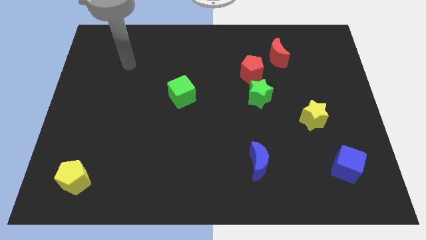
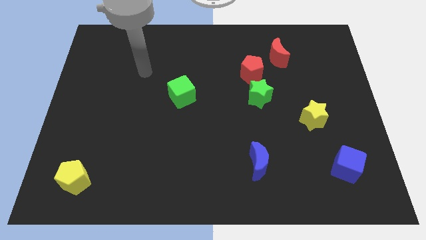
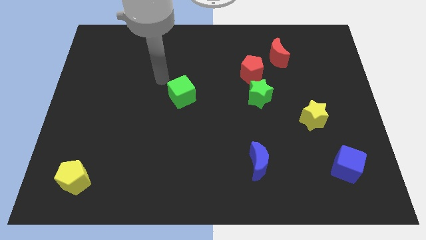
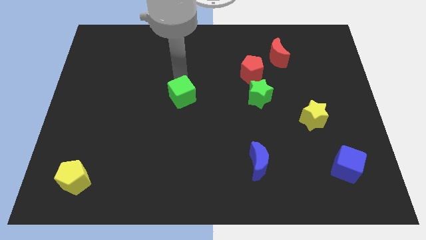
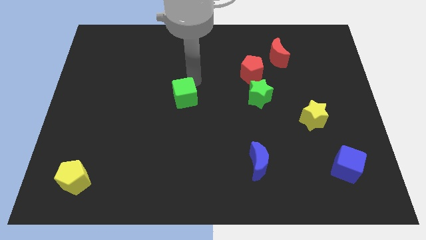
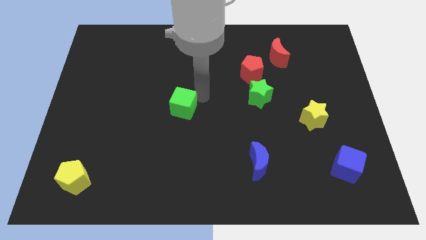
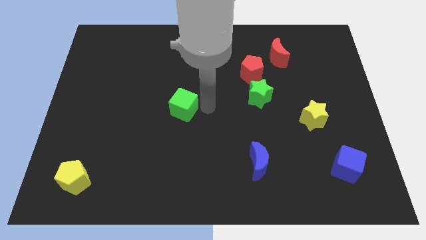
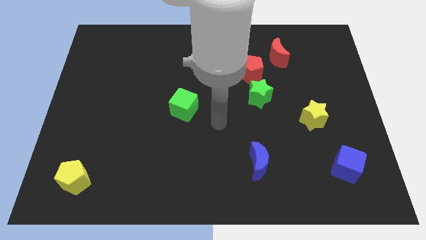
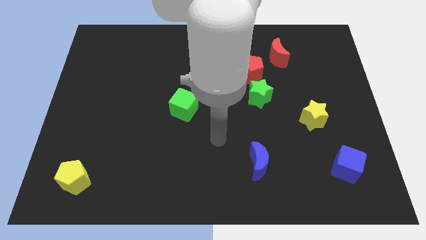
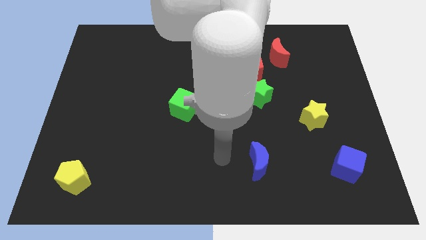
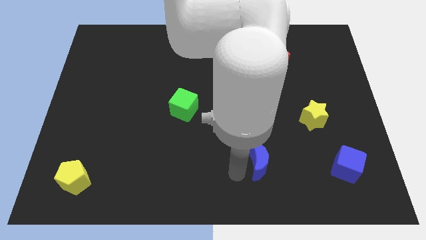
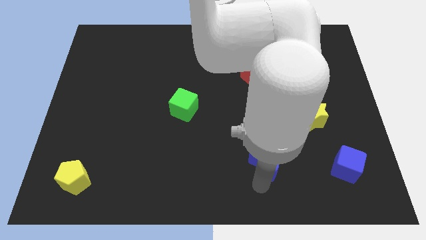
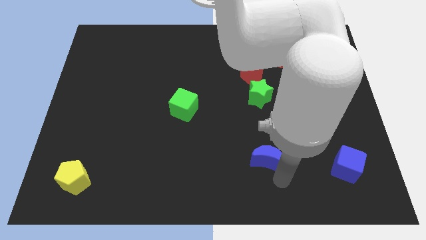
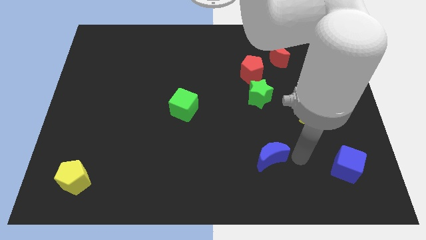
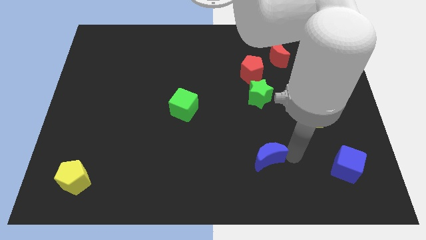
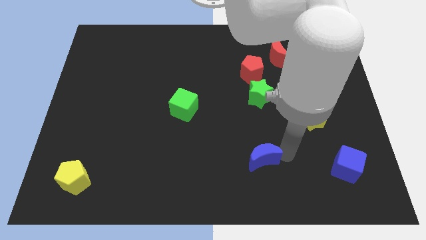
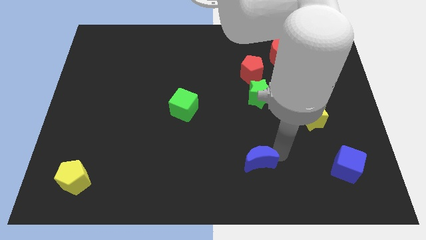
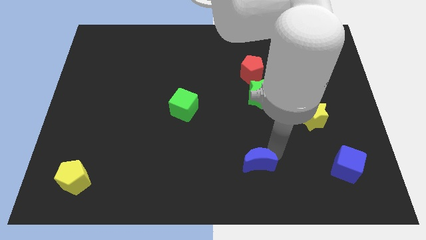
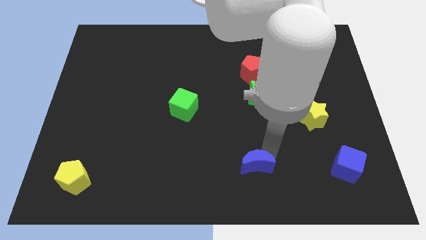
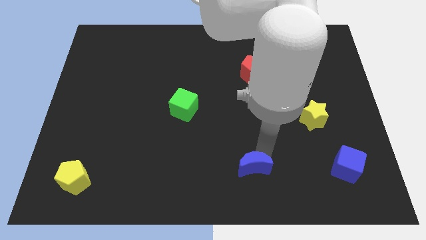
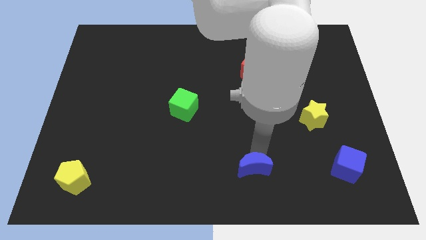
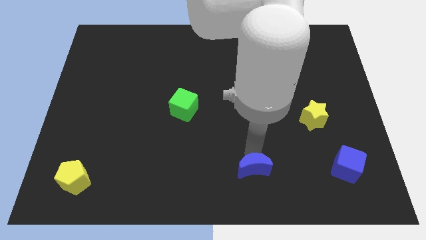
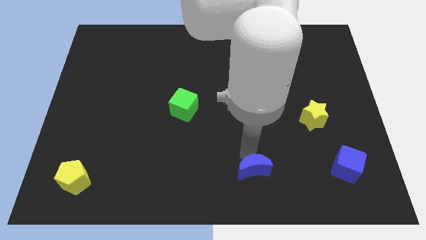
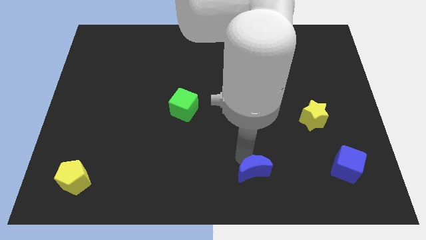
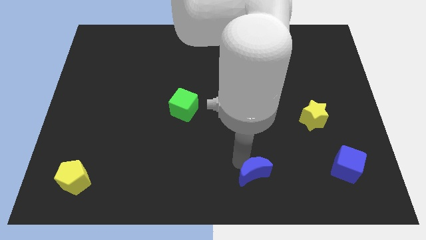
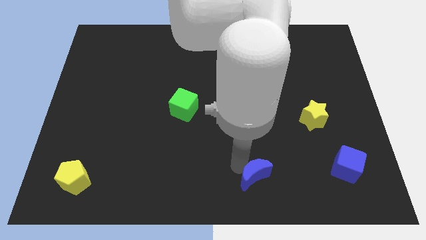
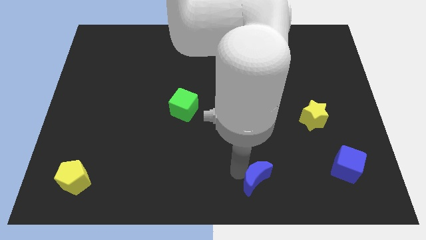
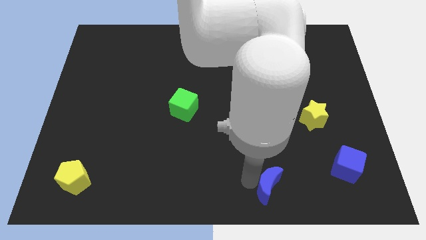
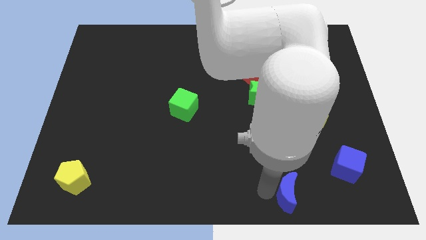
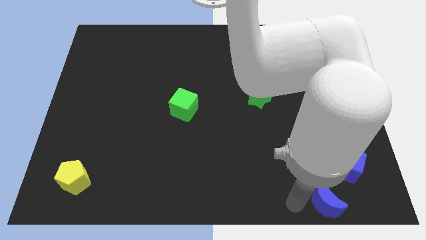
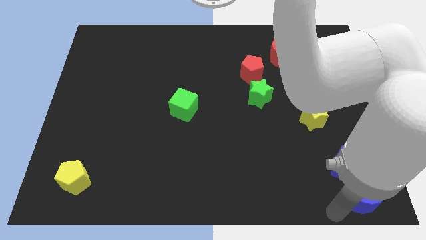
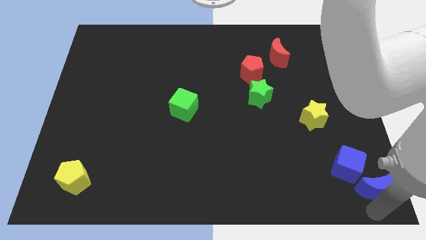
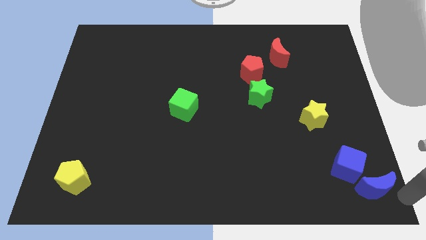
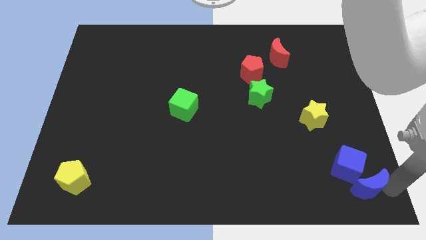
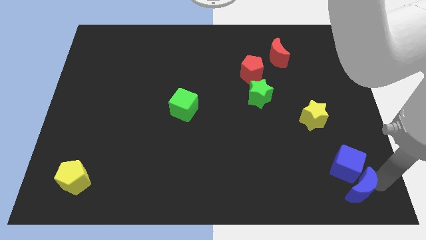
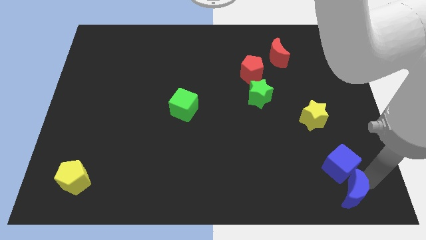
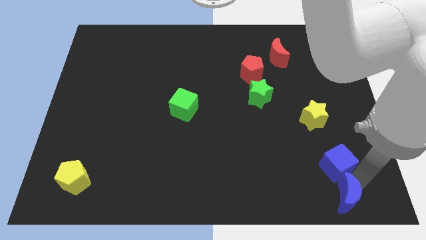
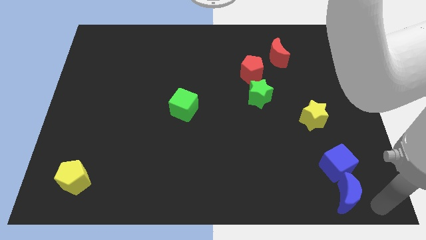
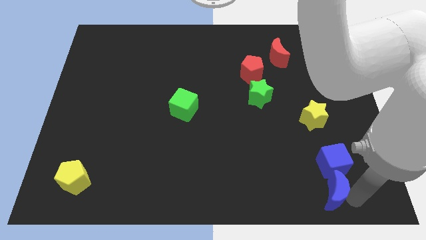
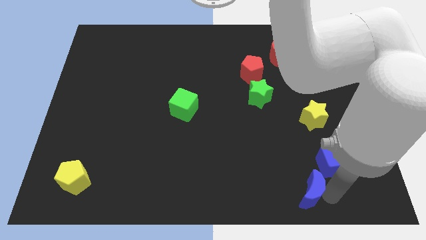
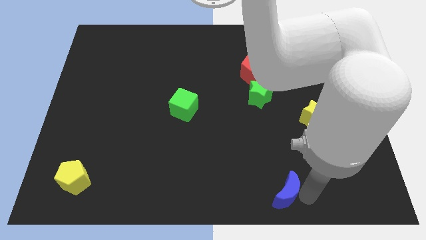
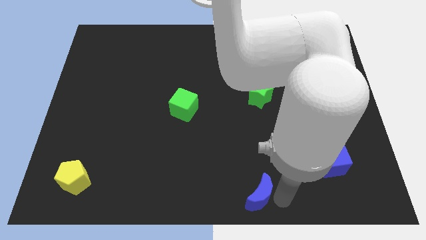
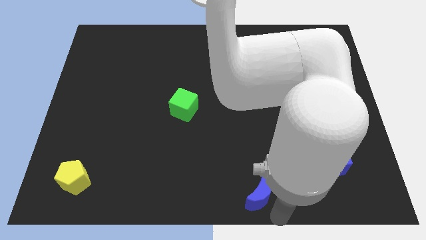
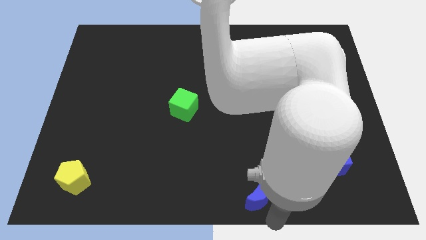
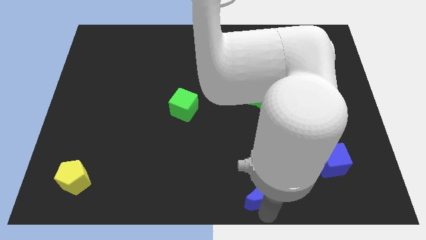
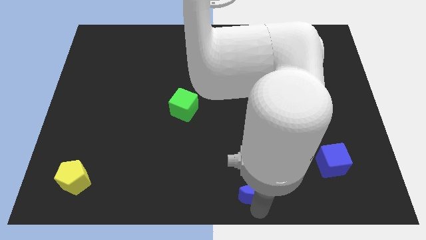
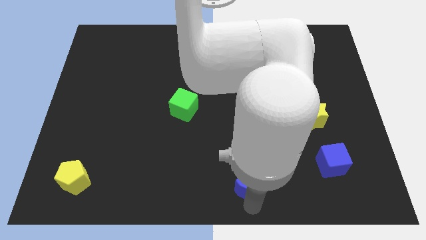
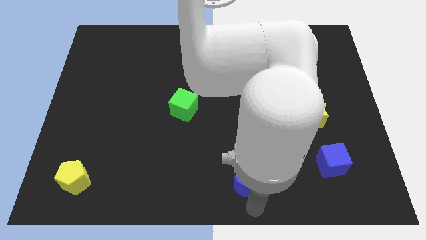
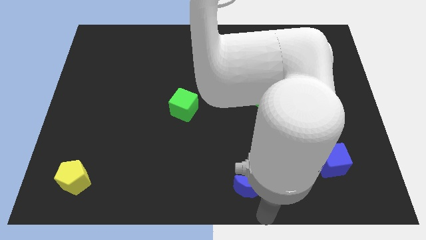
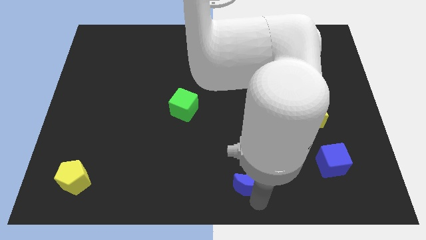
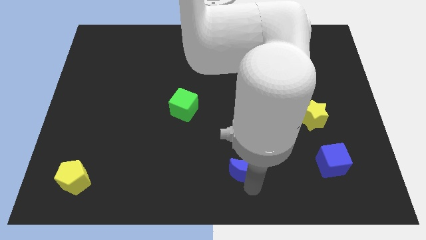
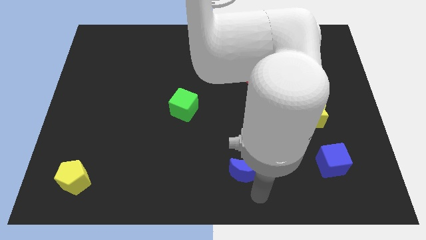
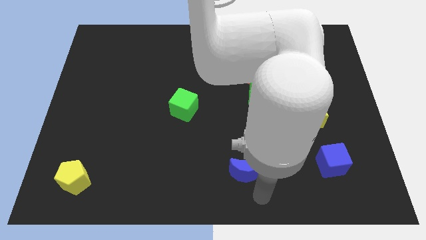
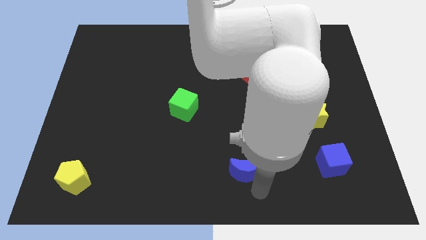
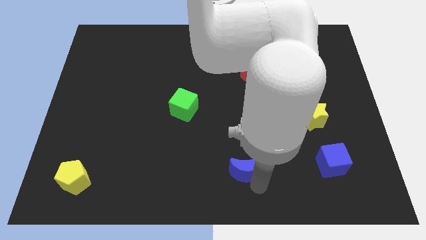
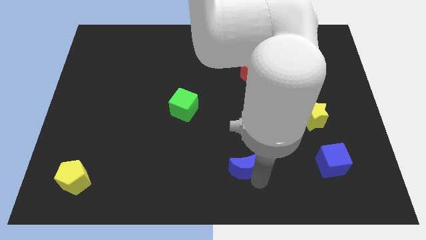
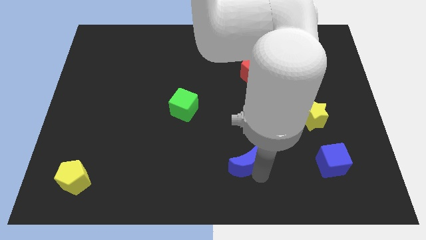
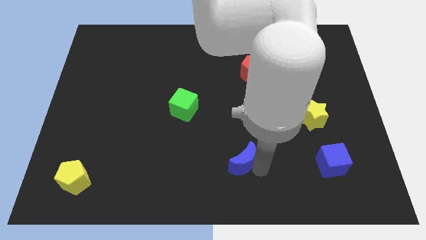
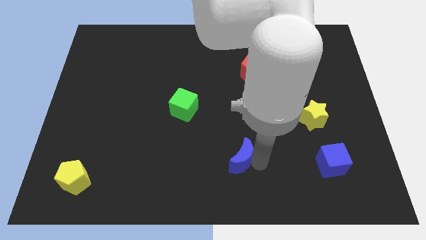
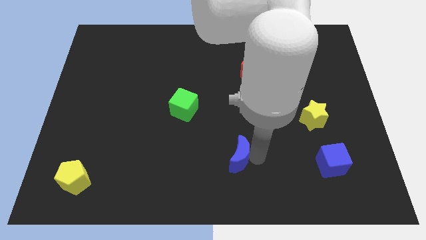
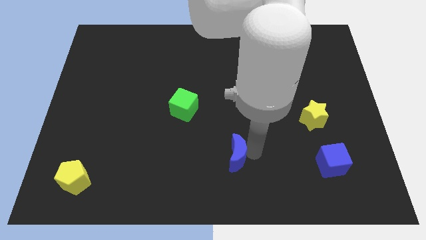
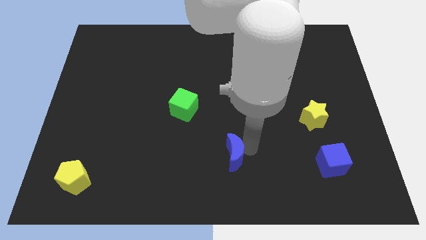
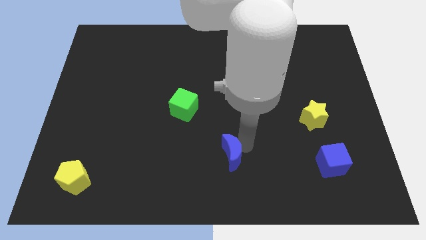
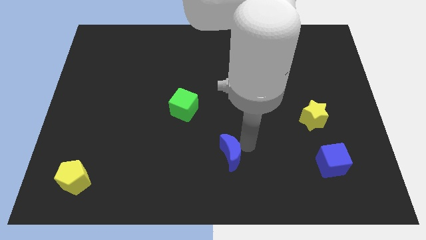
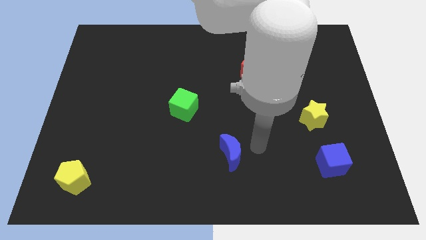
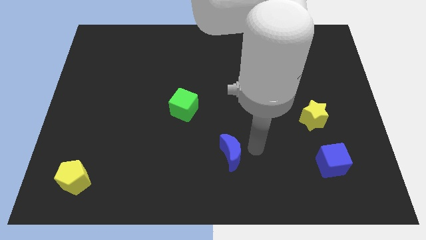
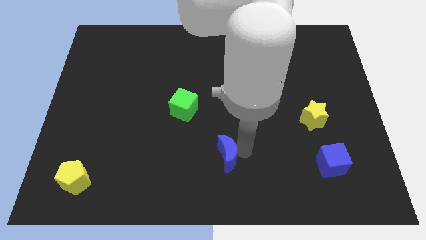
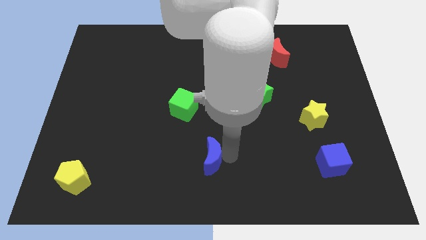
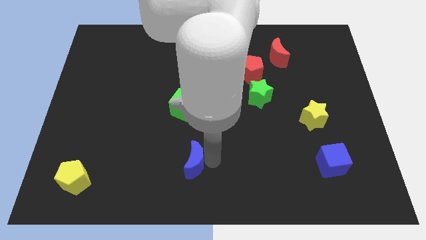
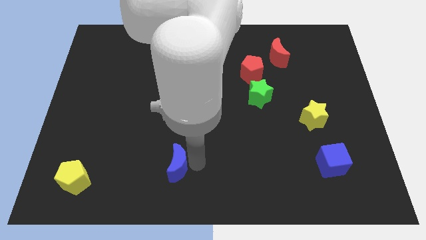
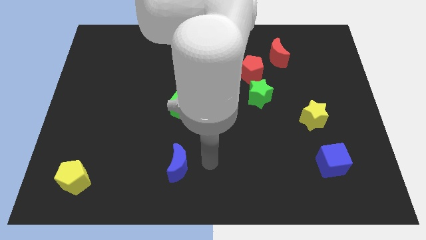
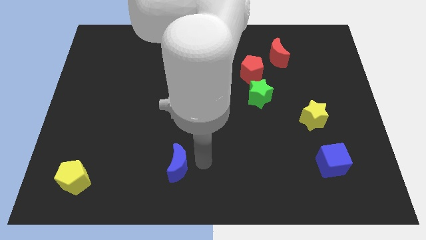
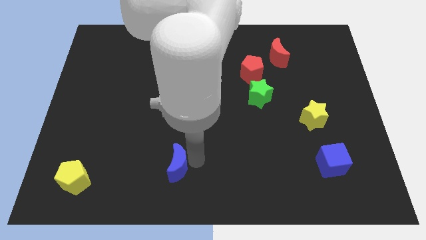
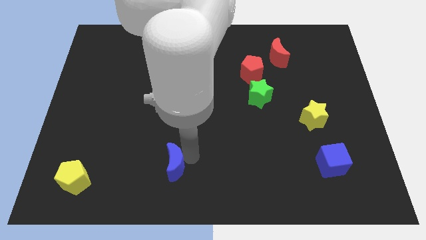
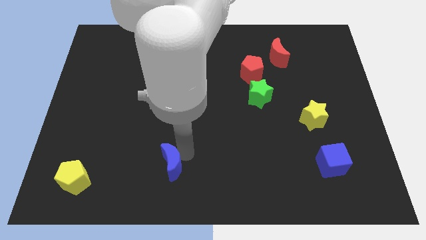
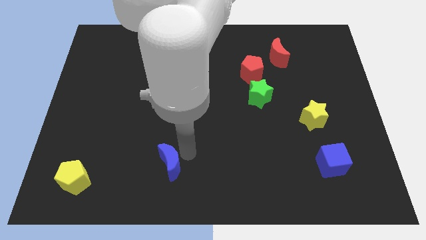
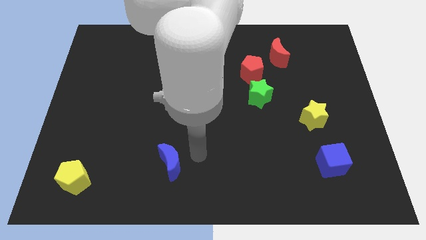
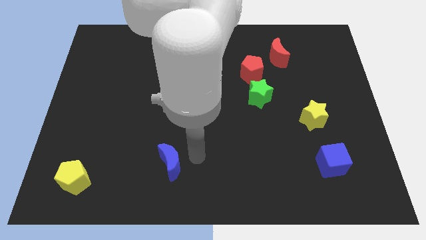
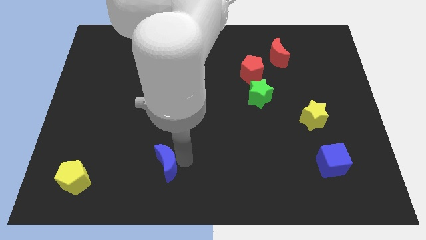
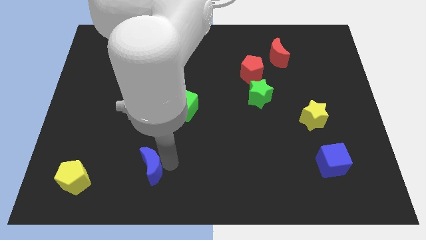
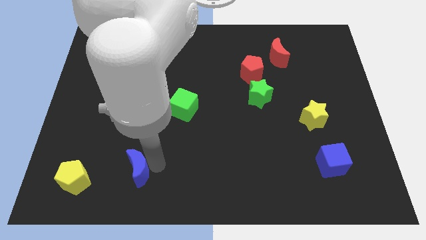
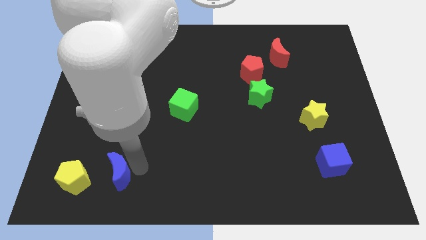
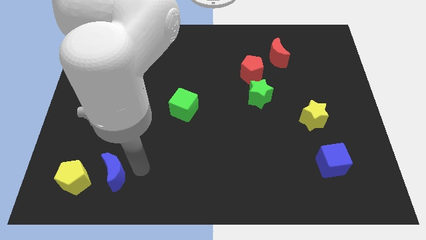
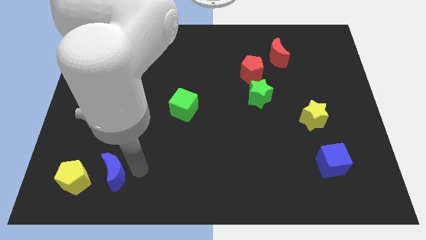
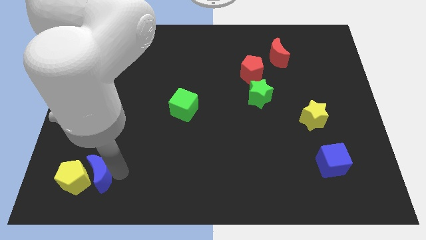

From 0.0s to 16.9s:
move the blue moon towards the yellow pentagon
